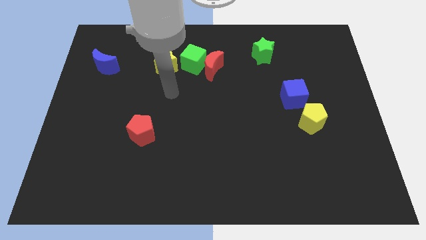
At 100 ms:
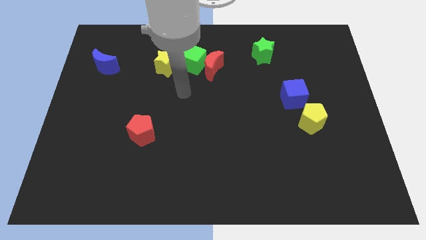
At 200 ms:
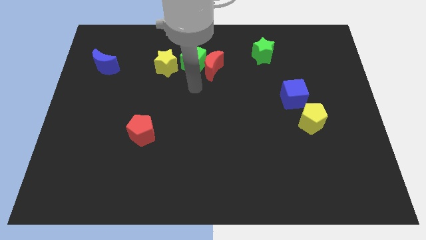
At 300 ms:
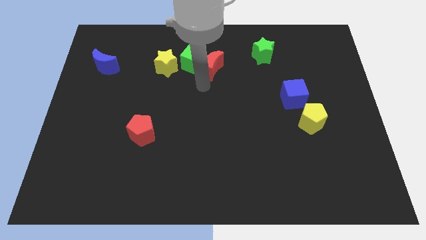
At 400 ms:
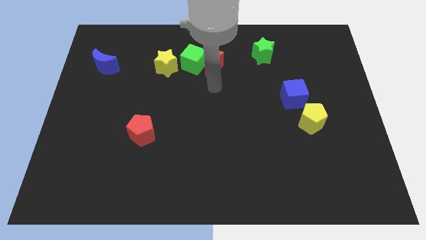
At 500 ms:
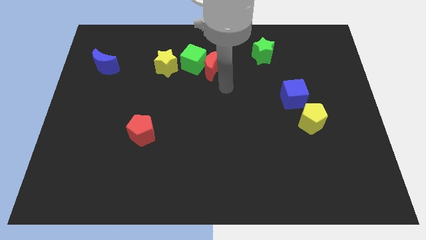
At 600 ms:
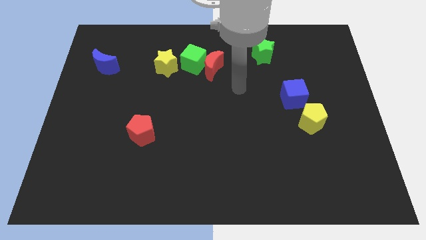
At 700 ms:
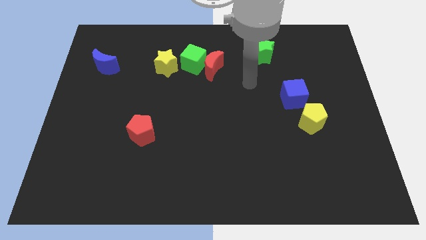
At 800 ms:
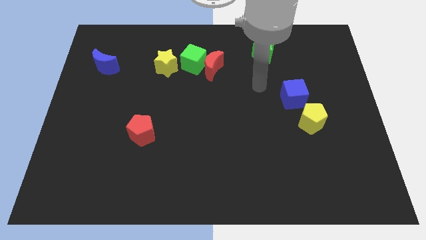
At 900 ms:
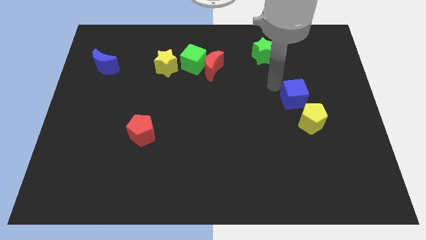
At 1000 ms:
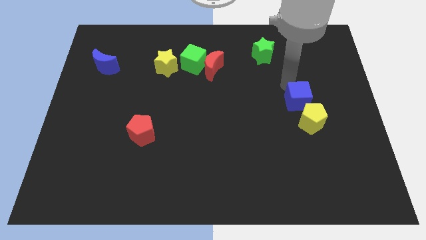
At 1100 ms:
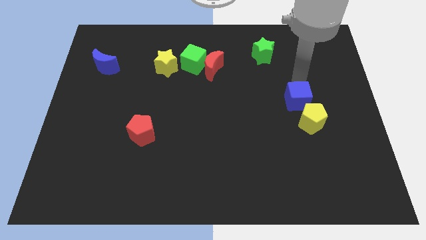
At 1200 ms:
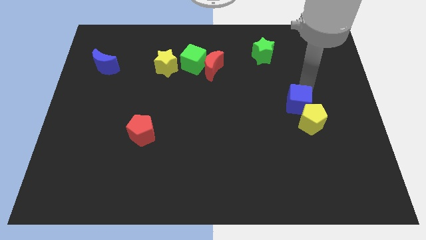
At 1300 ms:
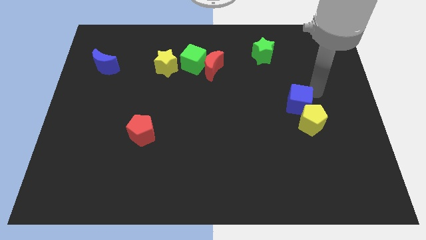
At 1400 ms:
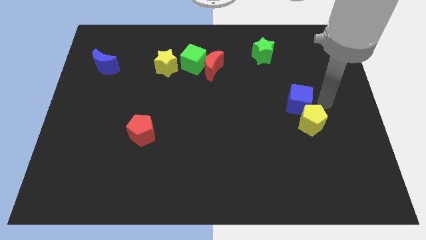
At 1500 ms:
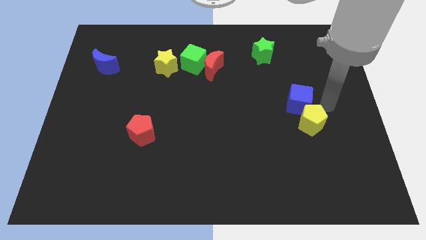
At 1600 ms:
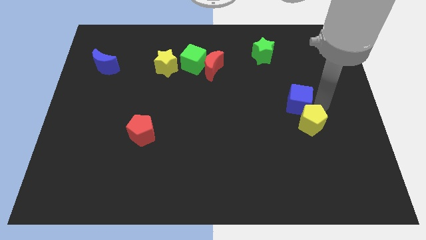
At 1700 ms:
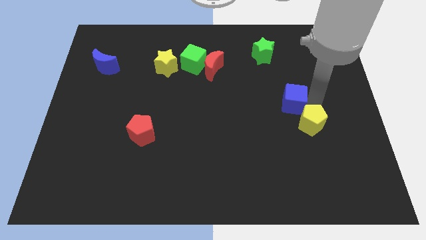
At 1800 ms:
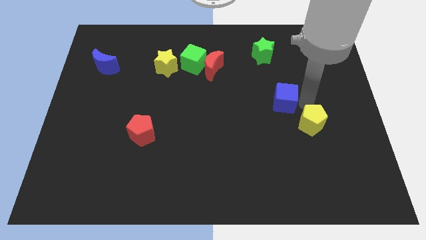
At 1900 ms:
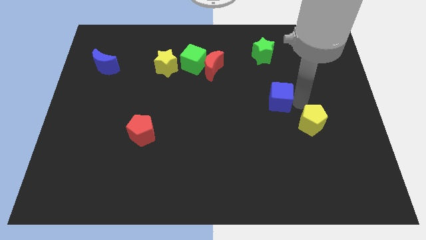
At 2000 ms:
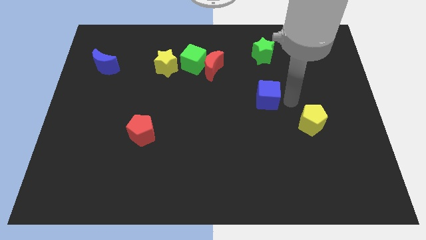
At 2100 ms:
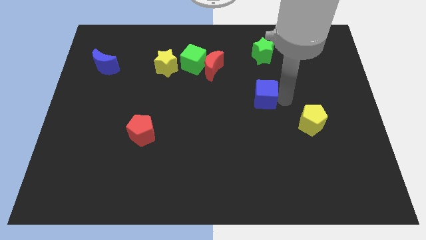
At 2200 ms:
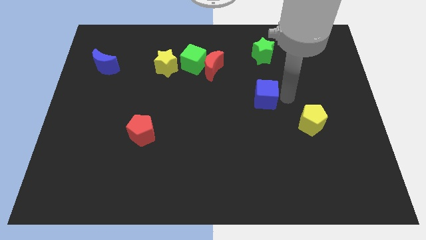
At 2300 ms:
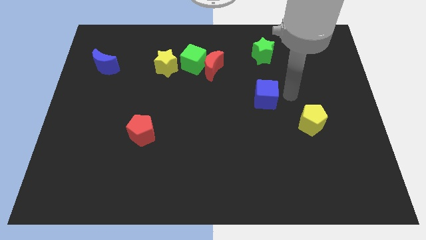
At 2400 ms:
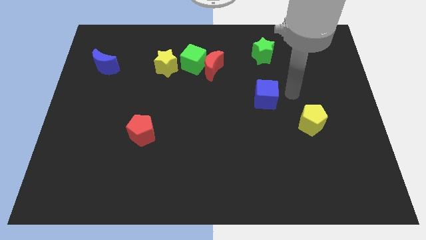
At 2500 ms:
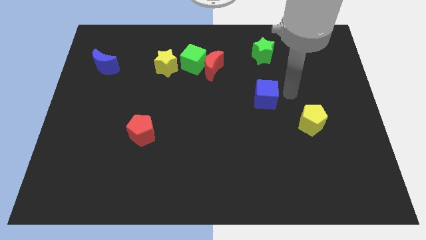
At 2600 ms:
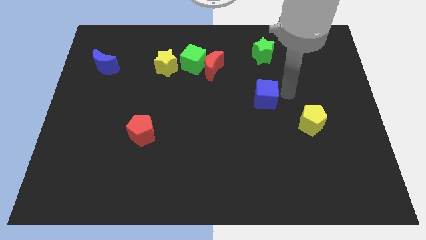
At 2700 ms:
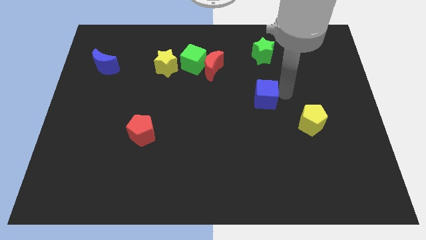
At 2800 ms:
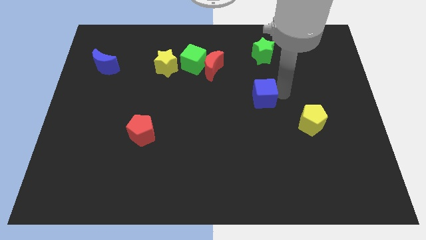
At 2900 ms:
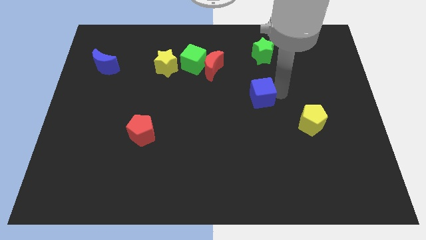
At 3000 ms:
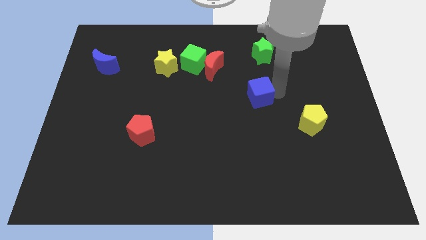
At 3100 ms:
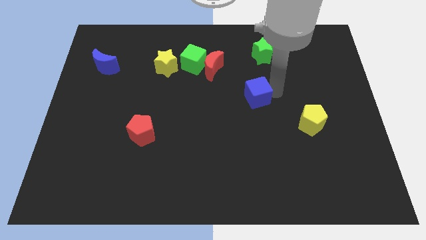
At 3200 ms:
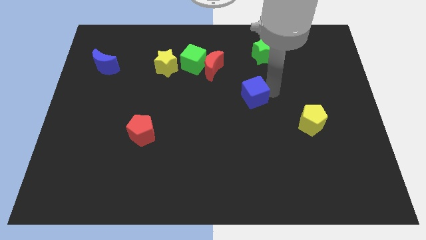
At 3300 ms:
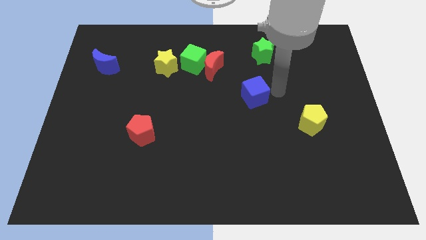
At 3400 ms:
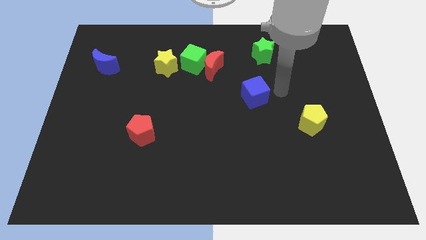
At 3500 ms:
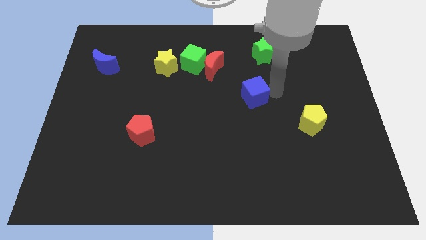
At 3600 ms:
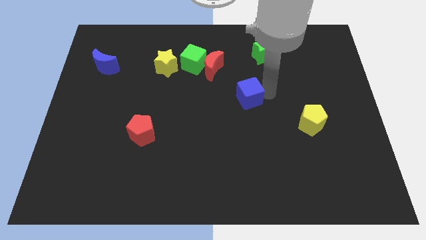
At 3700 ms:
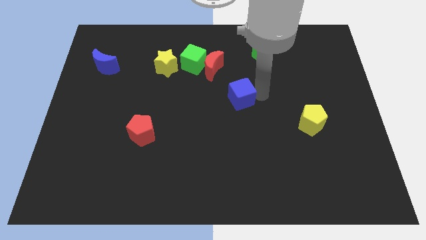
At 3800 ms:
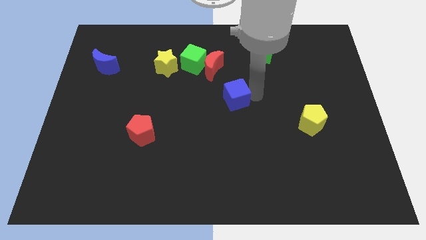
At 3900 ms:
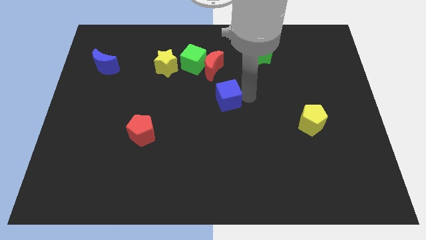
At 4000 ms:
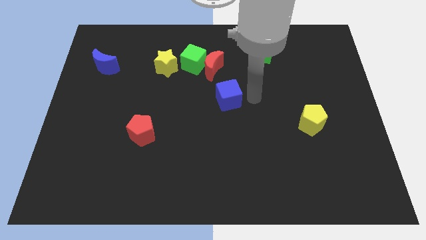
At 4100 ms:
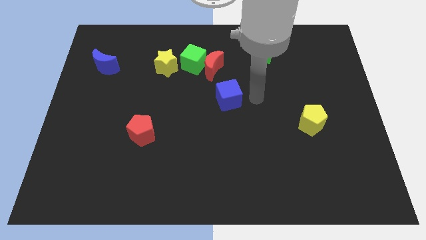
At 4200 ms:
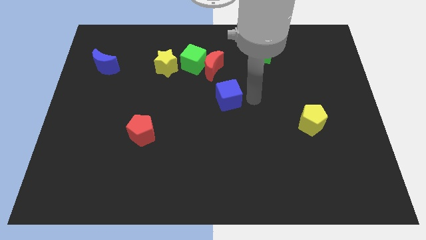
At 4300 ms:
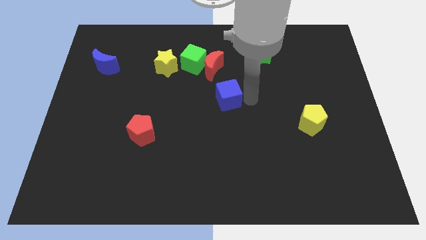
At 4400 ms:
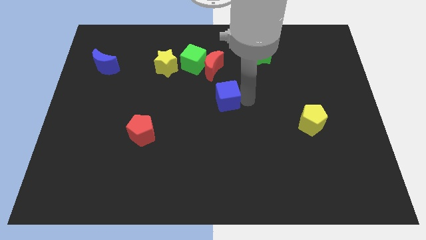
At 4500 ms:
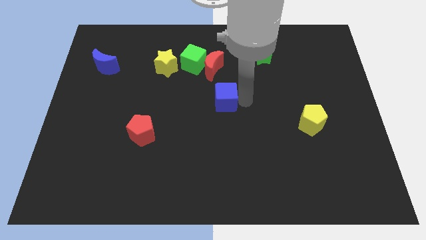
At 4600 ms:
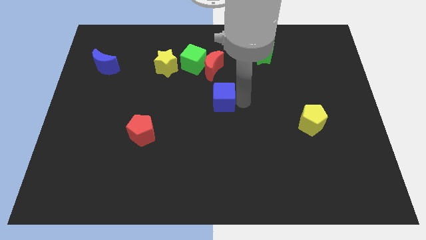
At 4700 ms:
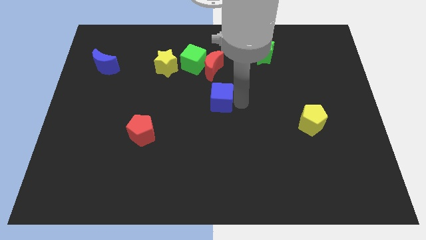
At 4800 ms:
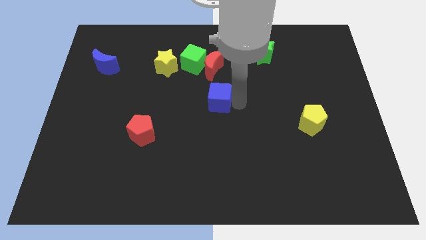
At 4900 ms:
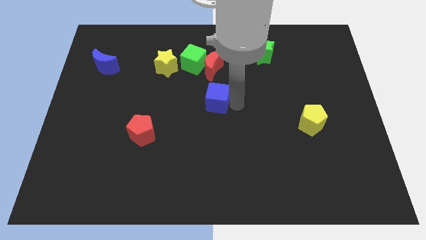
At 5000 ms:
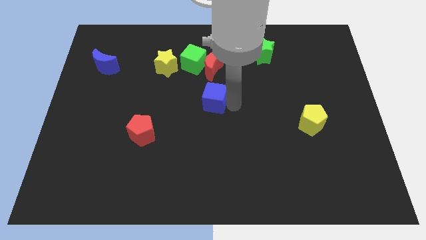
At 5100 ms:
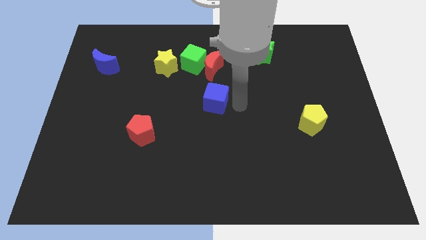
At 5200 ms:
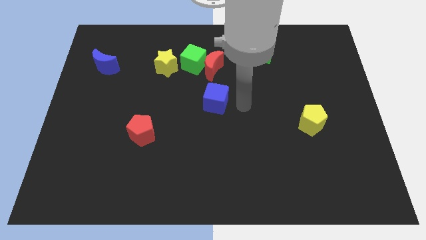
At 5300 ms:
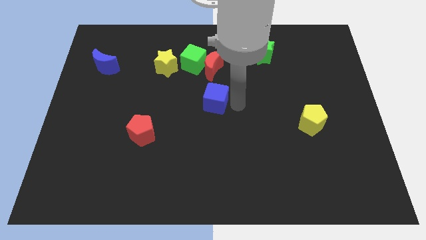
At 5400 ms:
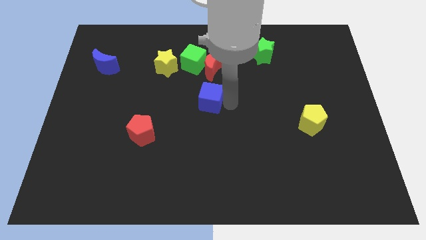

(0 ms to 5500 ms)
push the blue cube to the left

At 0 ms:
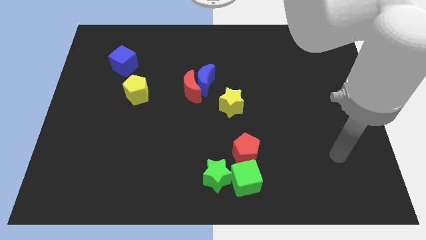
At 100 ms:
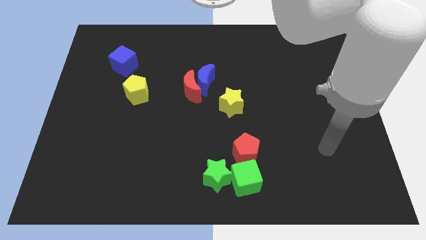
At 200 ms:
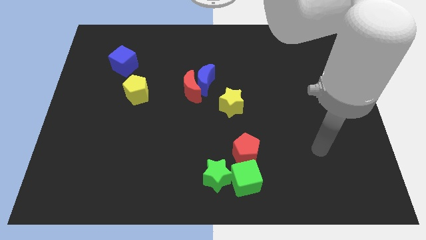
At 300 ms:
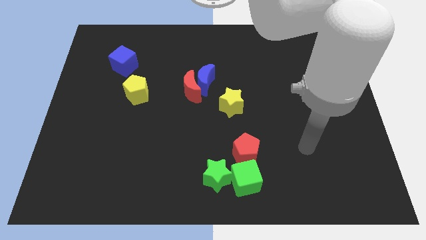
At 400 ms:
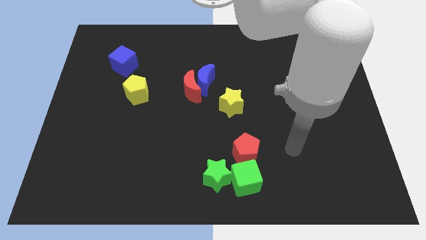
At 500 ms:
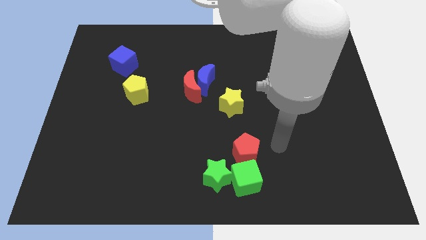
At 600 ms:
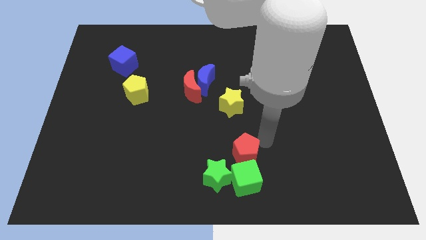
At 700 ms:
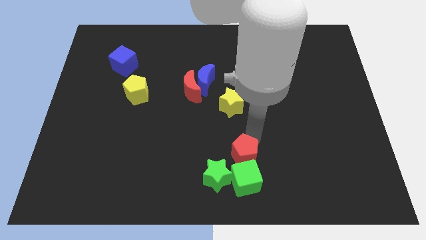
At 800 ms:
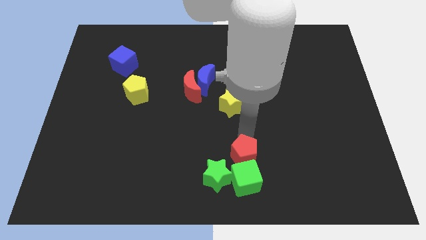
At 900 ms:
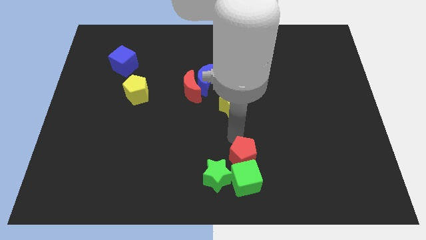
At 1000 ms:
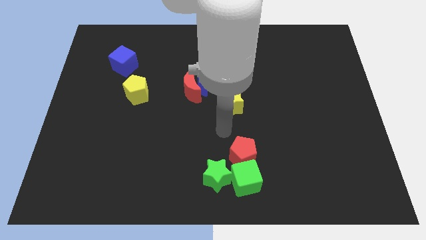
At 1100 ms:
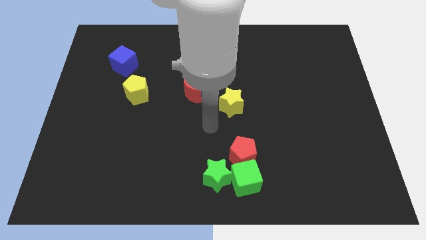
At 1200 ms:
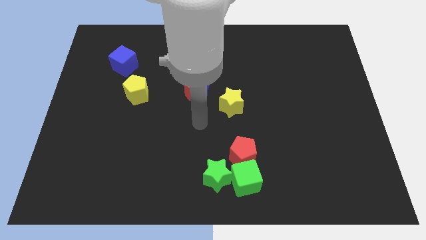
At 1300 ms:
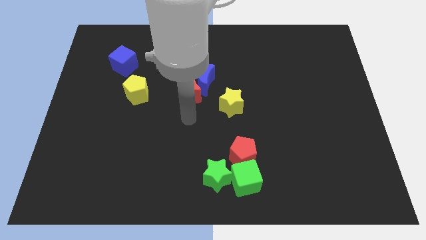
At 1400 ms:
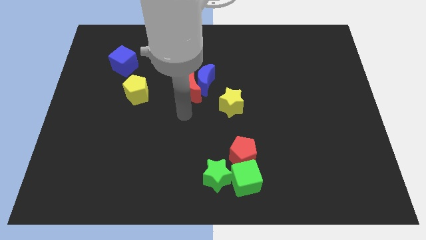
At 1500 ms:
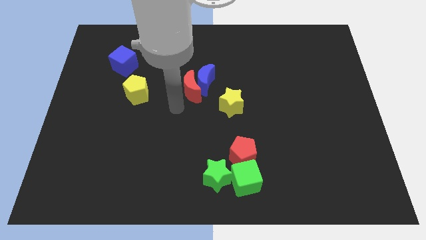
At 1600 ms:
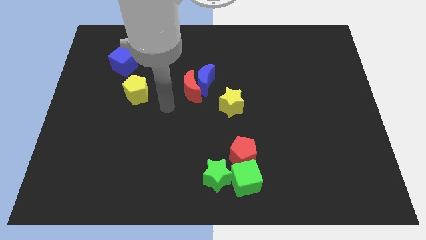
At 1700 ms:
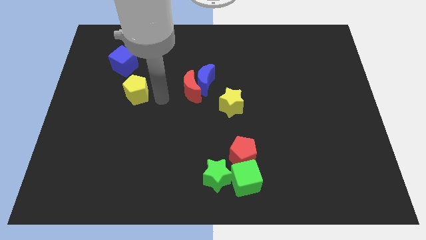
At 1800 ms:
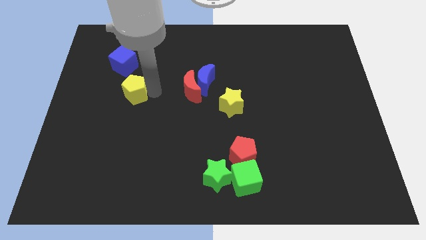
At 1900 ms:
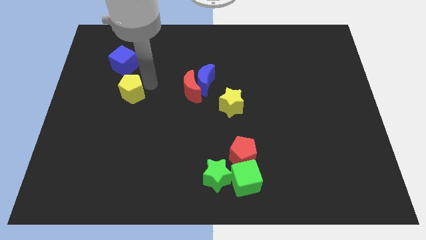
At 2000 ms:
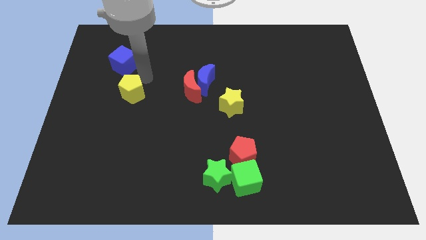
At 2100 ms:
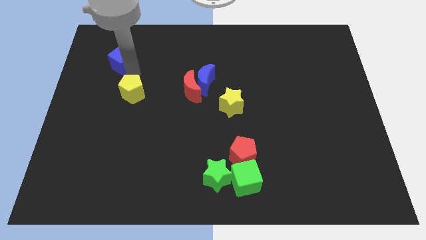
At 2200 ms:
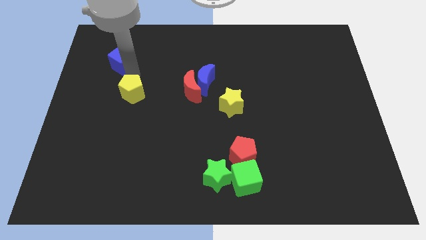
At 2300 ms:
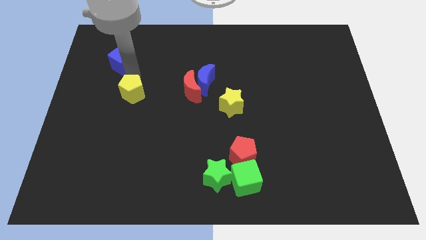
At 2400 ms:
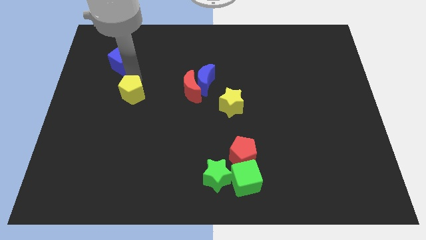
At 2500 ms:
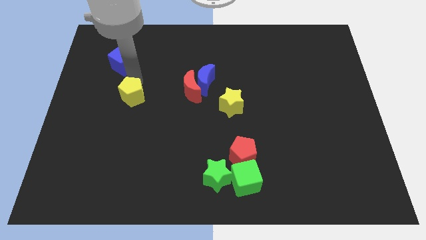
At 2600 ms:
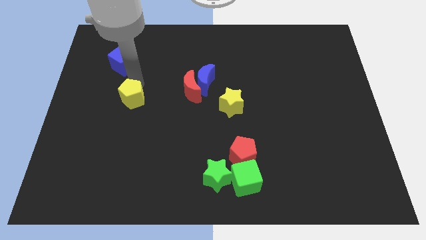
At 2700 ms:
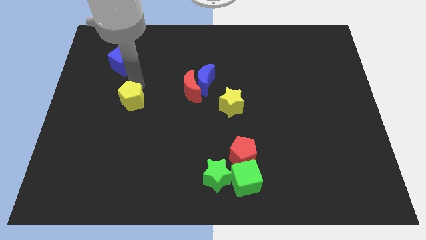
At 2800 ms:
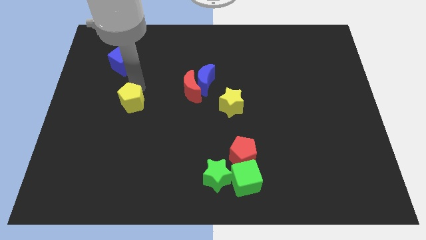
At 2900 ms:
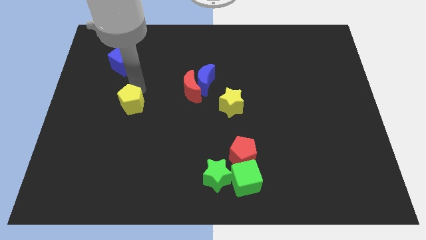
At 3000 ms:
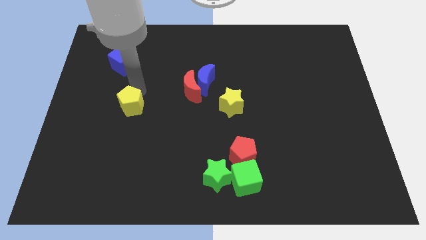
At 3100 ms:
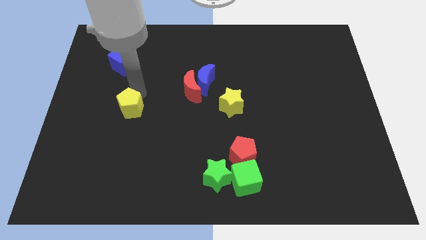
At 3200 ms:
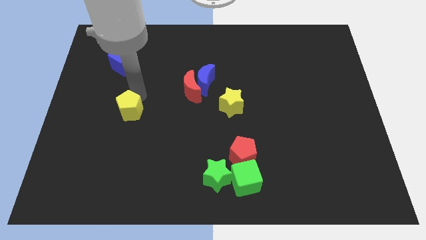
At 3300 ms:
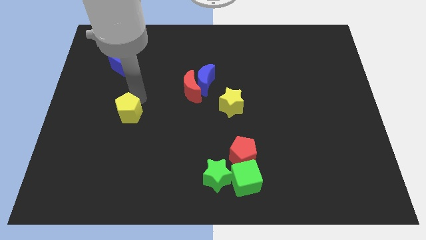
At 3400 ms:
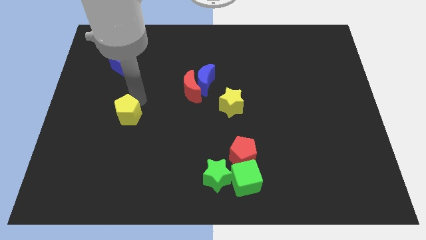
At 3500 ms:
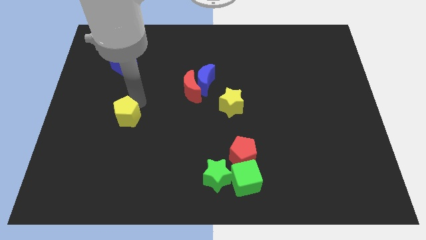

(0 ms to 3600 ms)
push the yellow pentagon a little down
